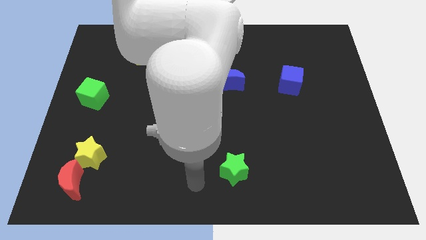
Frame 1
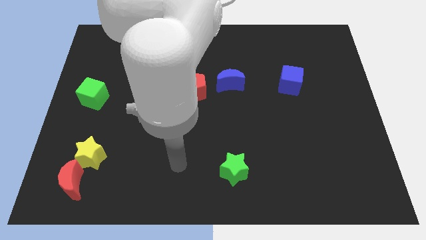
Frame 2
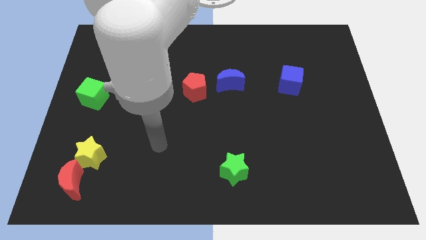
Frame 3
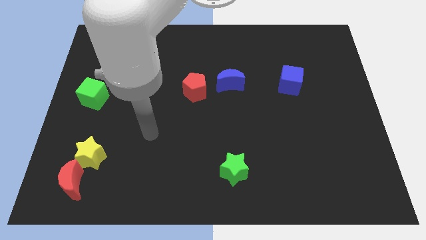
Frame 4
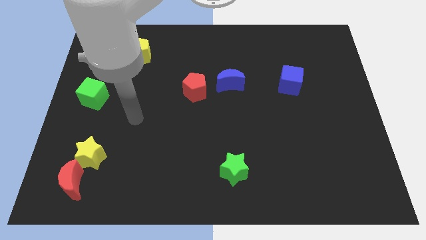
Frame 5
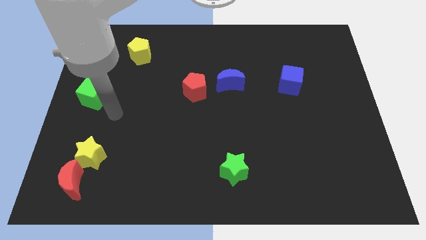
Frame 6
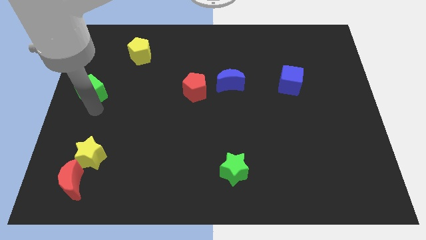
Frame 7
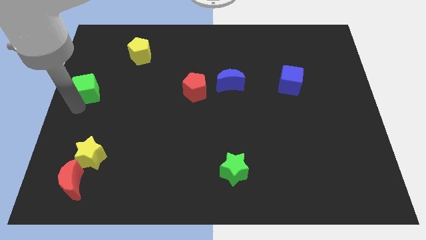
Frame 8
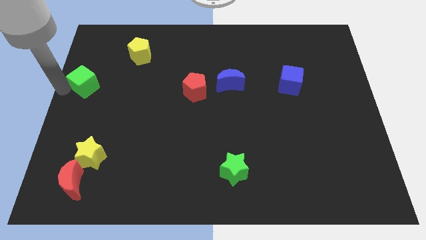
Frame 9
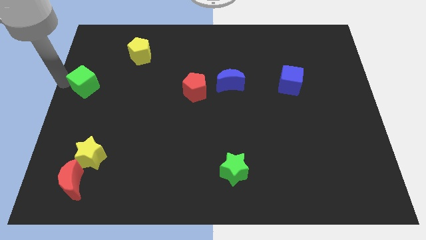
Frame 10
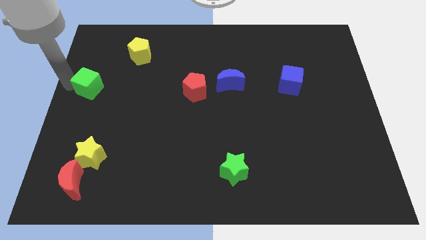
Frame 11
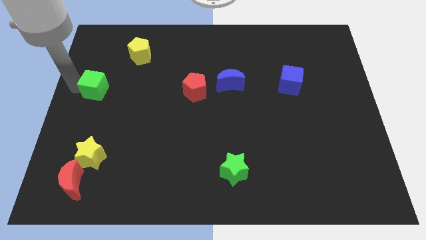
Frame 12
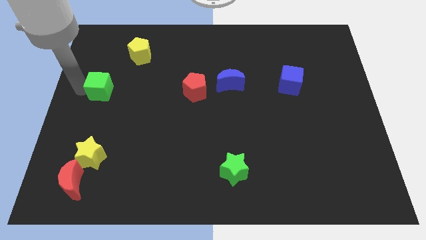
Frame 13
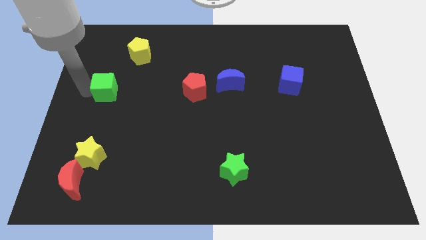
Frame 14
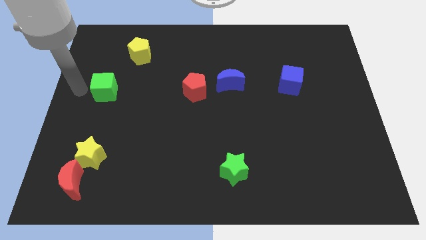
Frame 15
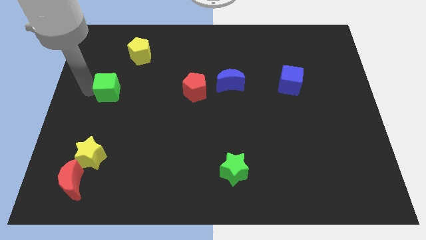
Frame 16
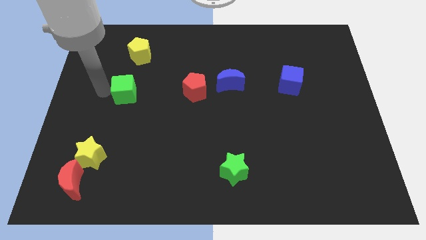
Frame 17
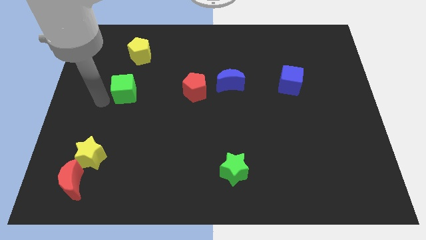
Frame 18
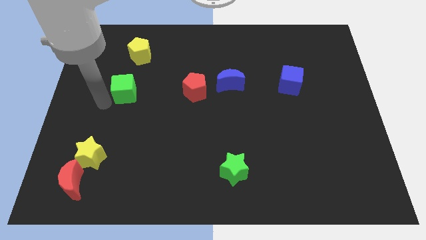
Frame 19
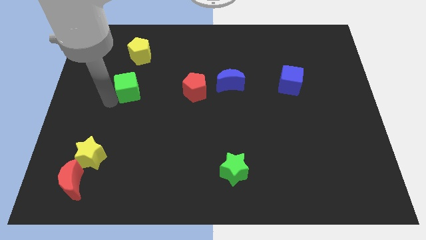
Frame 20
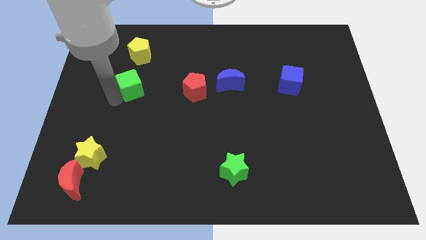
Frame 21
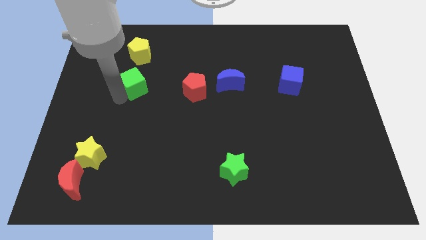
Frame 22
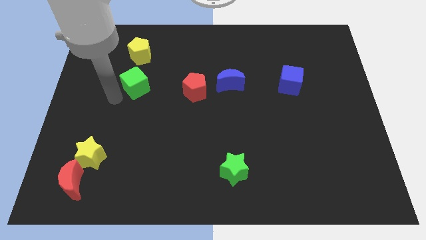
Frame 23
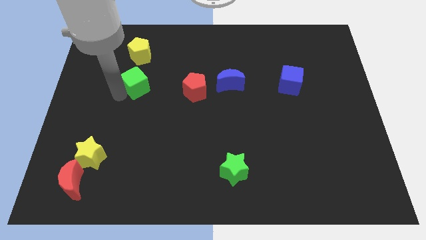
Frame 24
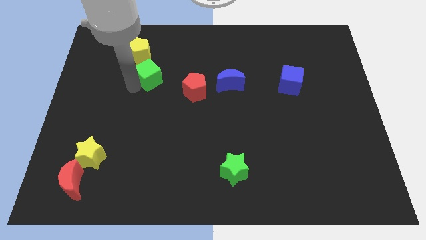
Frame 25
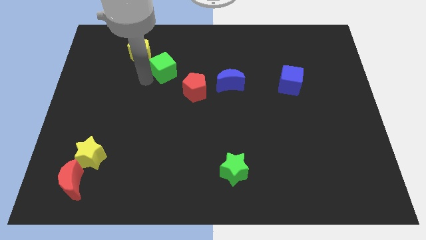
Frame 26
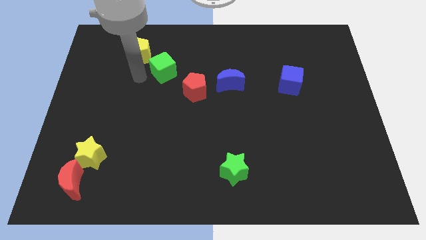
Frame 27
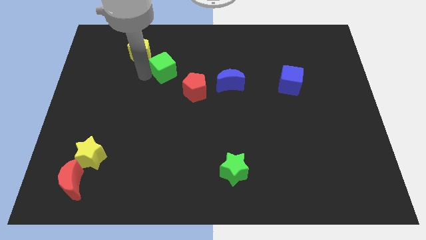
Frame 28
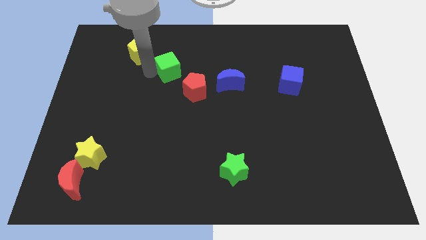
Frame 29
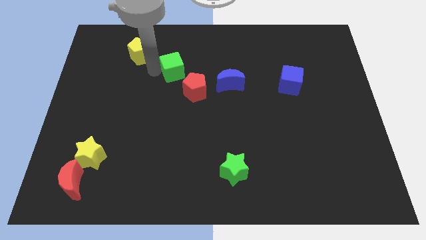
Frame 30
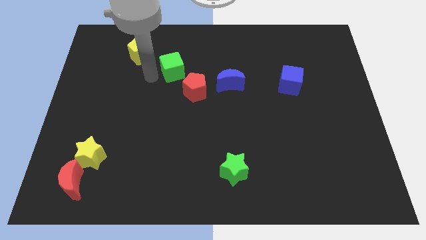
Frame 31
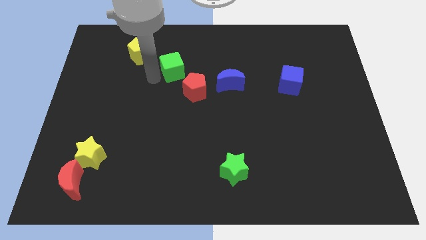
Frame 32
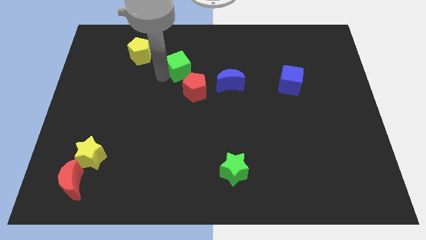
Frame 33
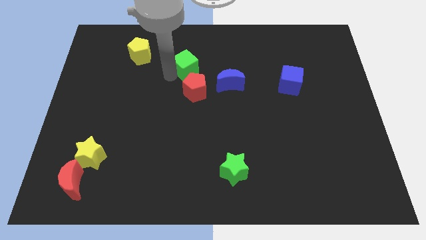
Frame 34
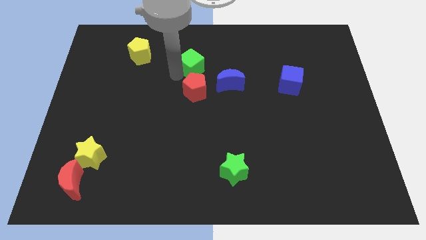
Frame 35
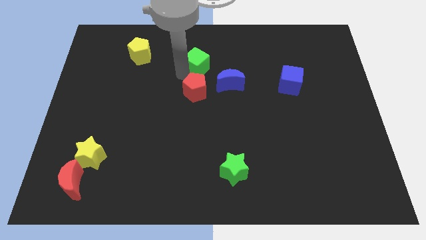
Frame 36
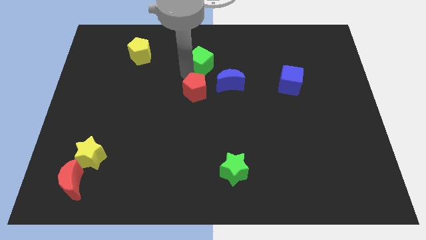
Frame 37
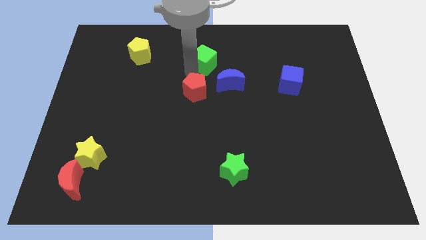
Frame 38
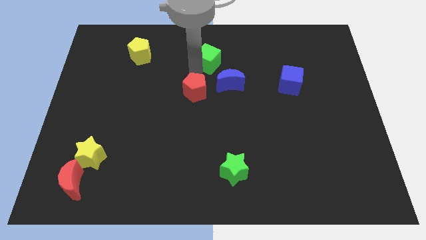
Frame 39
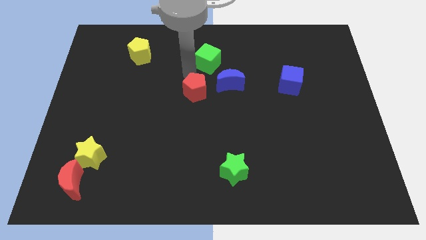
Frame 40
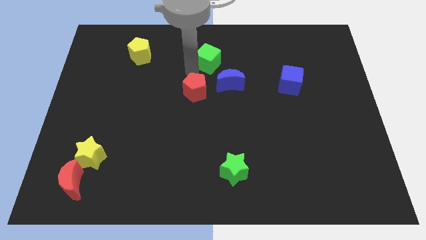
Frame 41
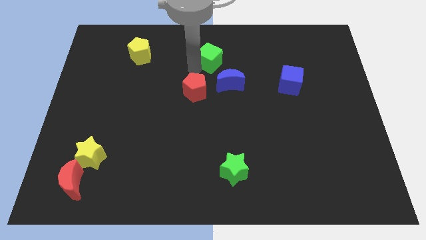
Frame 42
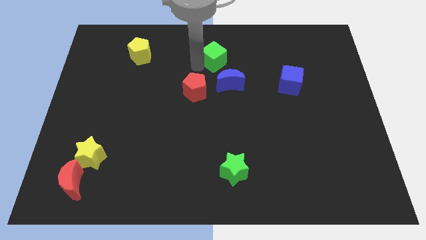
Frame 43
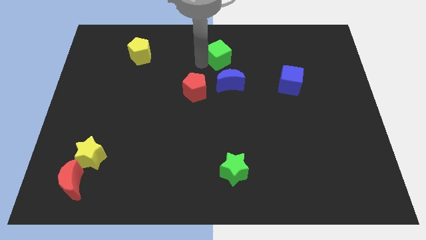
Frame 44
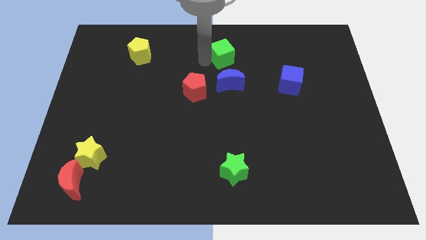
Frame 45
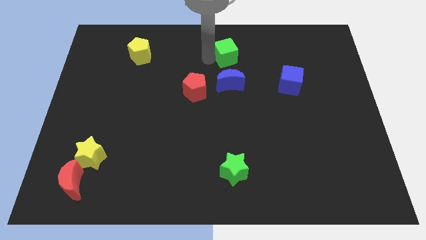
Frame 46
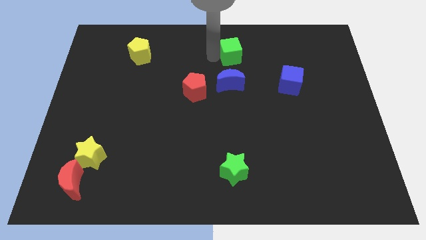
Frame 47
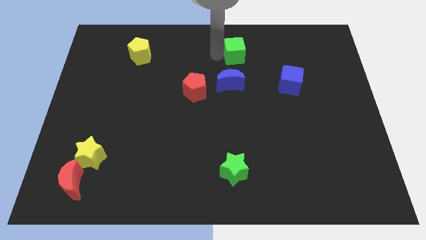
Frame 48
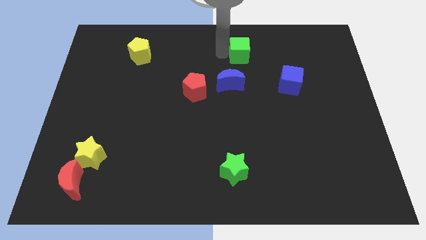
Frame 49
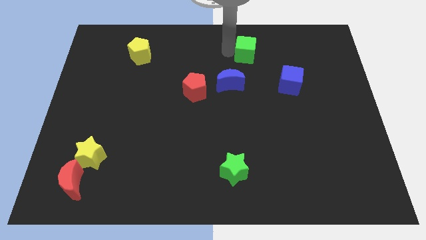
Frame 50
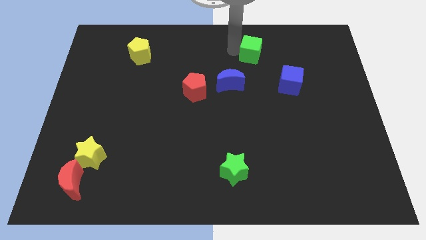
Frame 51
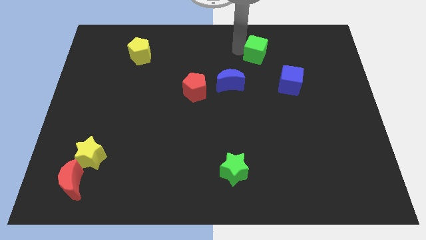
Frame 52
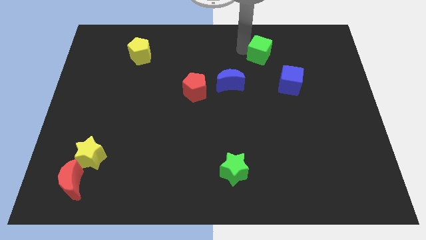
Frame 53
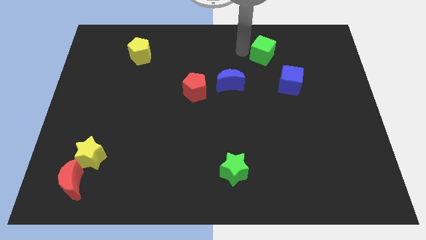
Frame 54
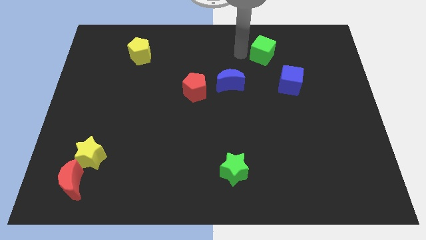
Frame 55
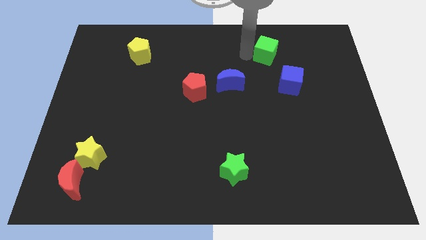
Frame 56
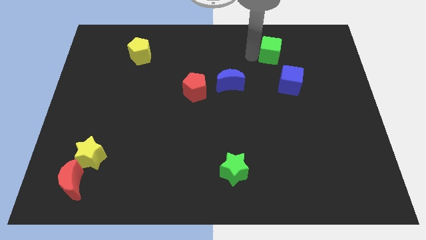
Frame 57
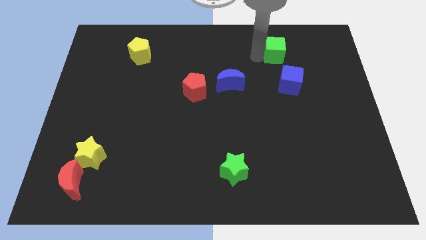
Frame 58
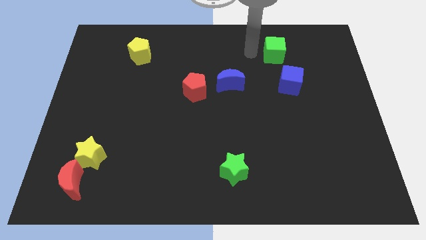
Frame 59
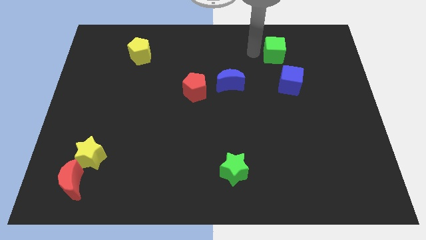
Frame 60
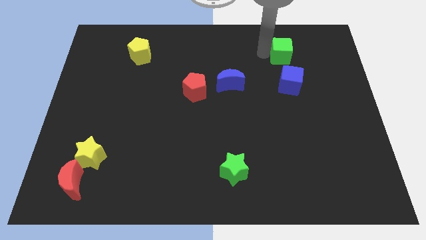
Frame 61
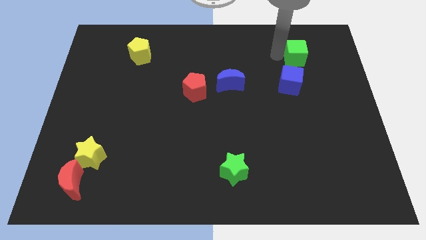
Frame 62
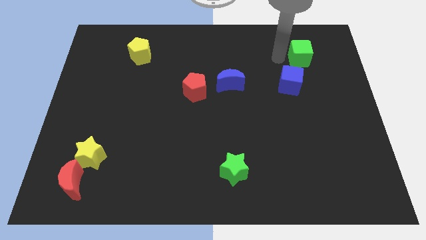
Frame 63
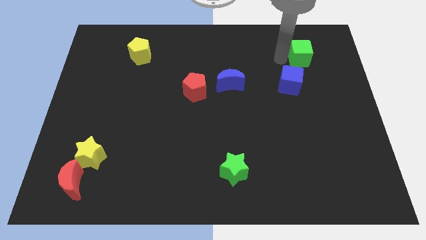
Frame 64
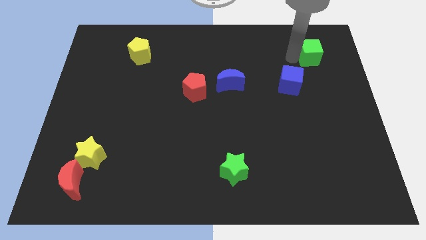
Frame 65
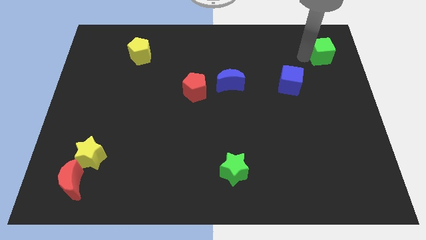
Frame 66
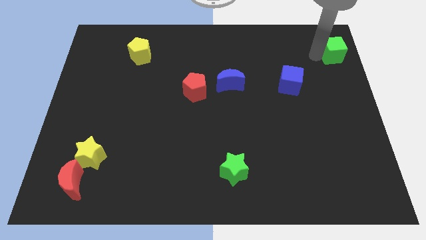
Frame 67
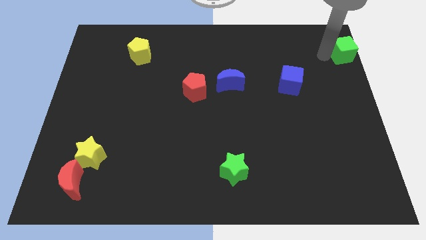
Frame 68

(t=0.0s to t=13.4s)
put the green cube to the top right
